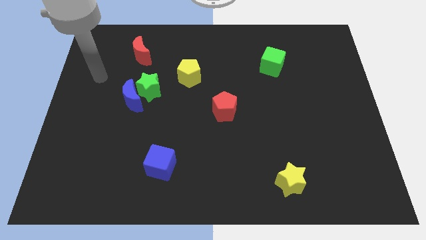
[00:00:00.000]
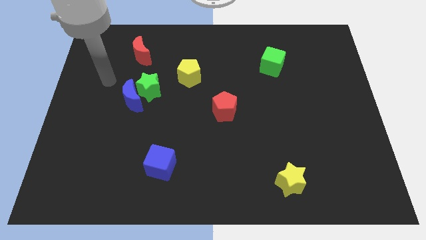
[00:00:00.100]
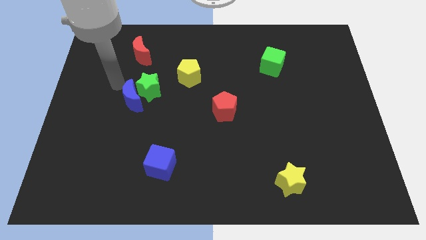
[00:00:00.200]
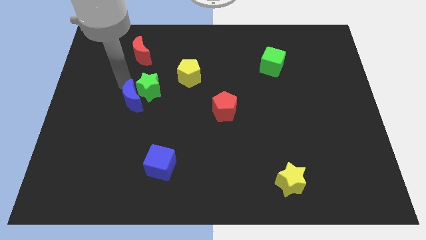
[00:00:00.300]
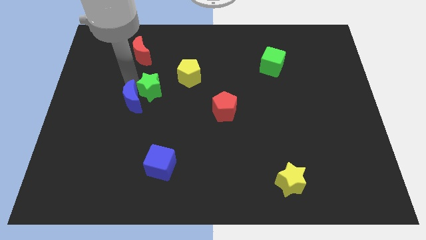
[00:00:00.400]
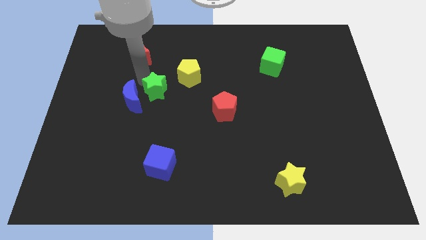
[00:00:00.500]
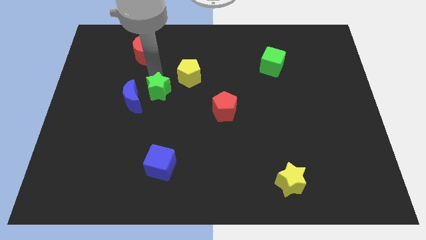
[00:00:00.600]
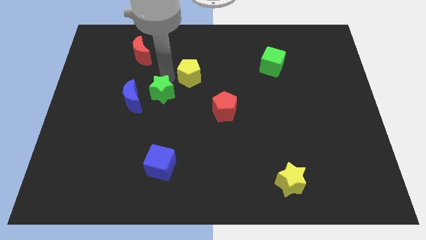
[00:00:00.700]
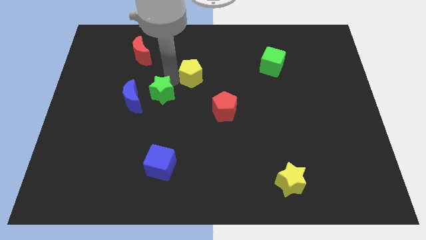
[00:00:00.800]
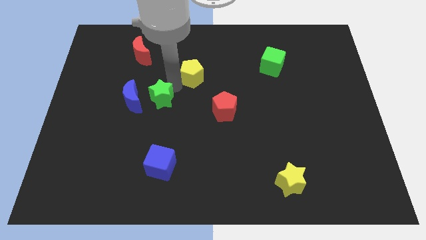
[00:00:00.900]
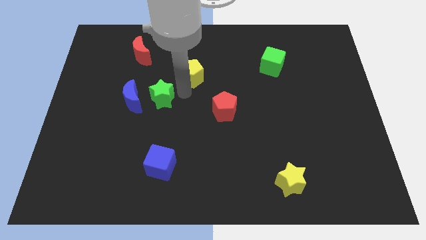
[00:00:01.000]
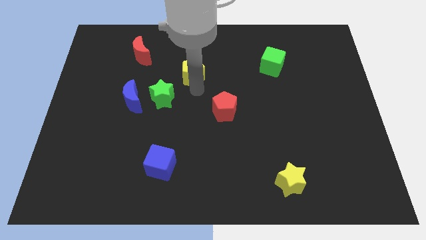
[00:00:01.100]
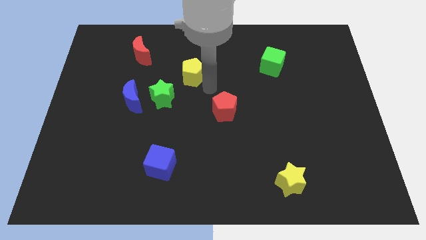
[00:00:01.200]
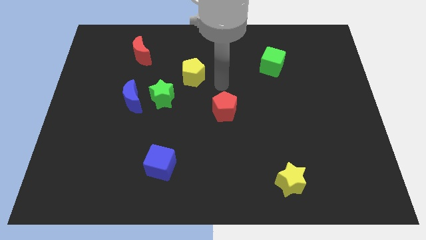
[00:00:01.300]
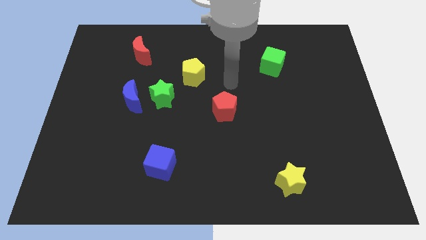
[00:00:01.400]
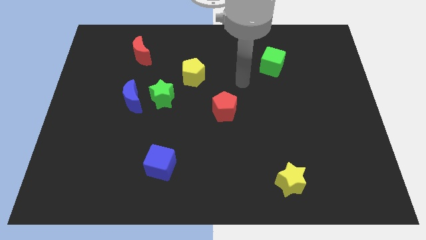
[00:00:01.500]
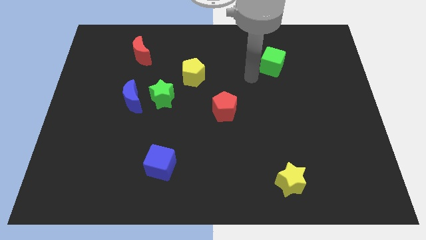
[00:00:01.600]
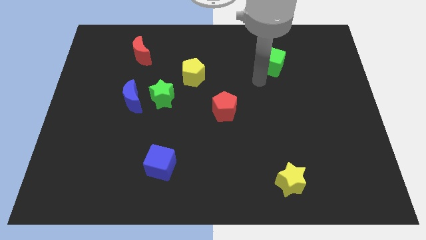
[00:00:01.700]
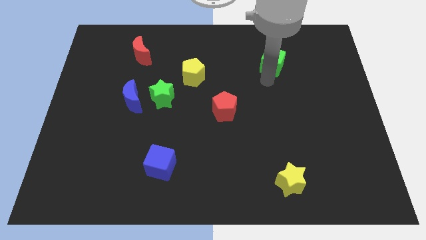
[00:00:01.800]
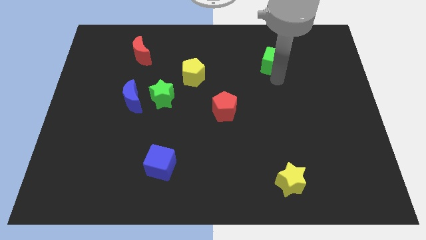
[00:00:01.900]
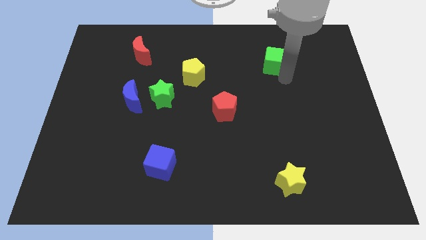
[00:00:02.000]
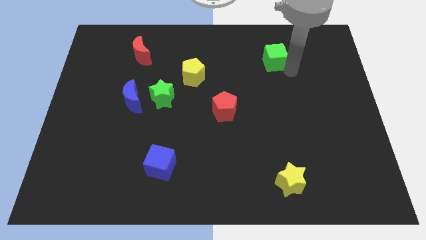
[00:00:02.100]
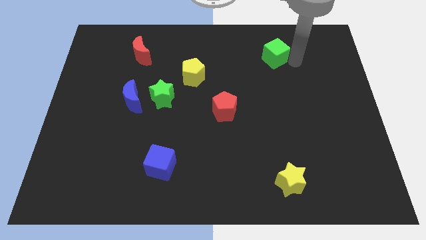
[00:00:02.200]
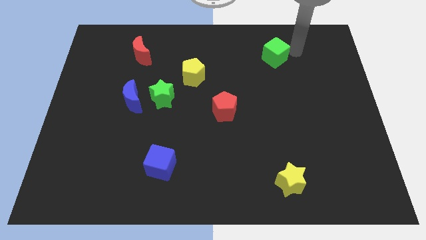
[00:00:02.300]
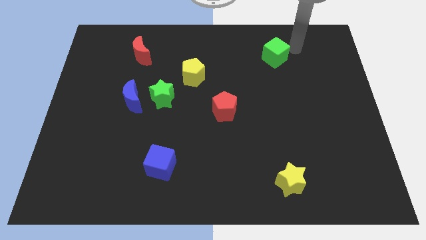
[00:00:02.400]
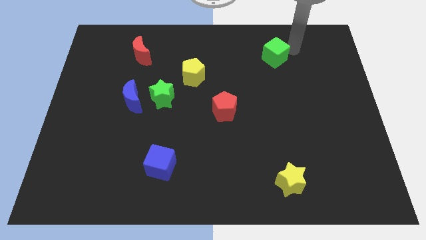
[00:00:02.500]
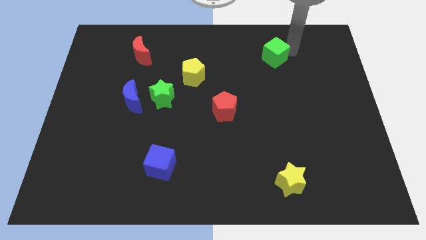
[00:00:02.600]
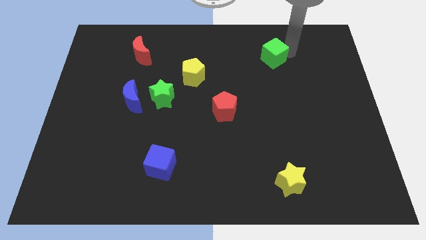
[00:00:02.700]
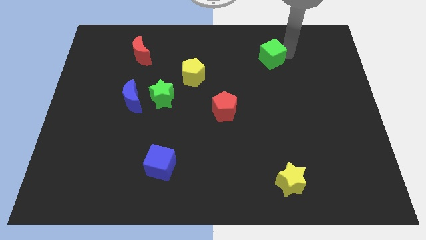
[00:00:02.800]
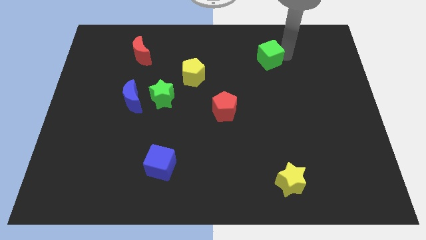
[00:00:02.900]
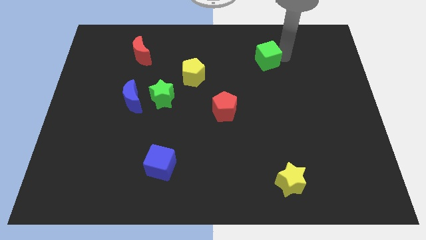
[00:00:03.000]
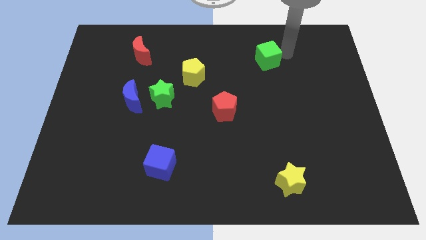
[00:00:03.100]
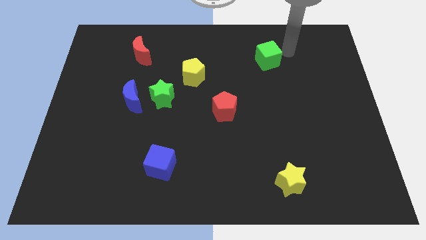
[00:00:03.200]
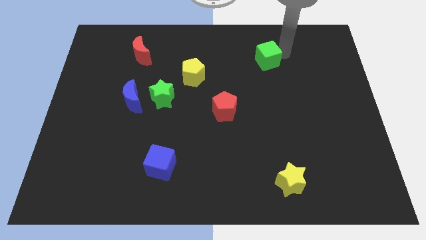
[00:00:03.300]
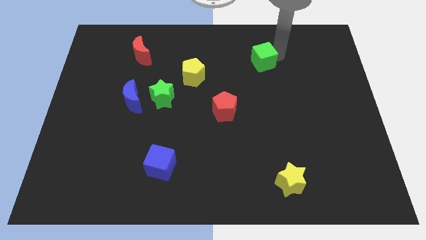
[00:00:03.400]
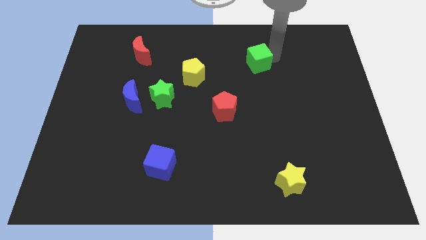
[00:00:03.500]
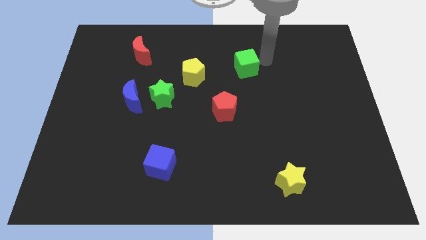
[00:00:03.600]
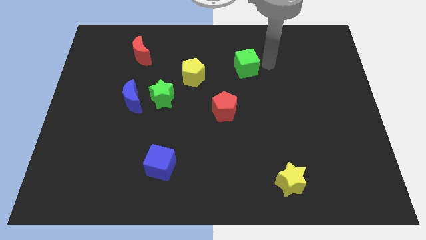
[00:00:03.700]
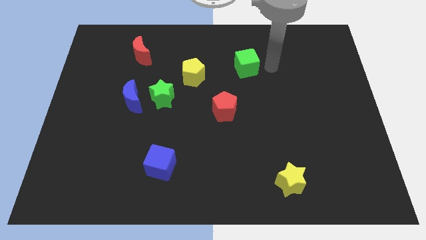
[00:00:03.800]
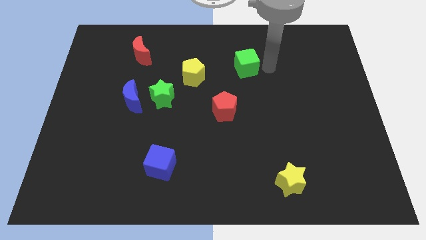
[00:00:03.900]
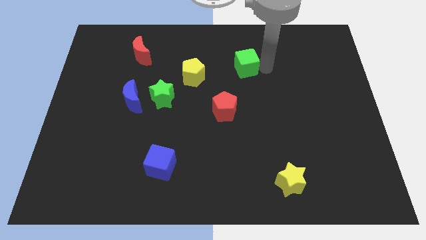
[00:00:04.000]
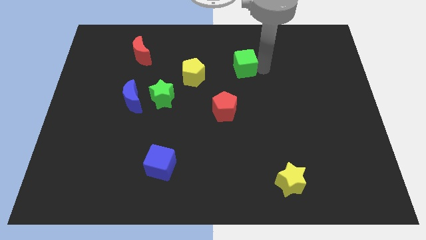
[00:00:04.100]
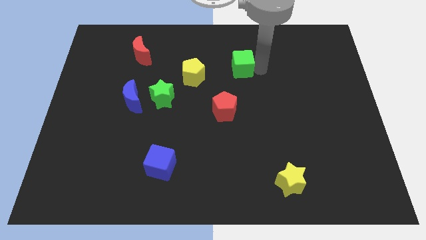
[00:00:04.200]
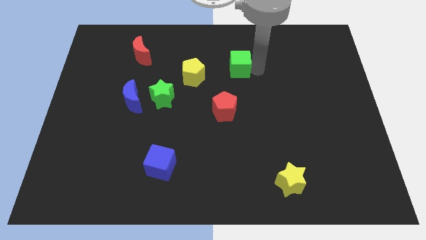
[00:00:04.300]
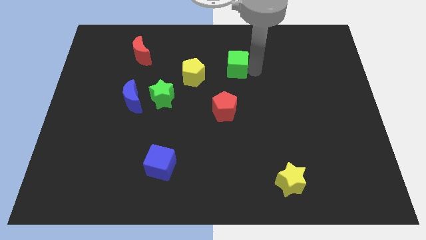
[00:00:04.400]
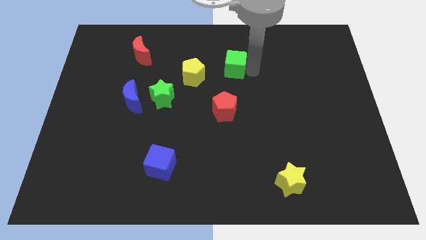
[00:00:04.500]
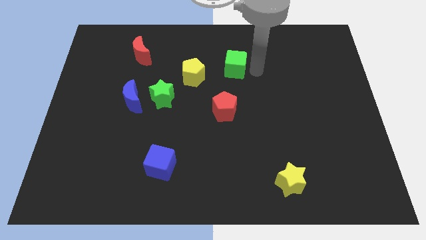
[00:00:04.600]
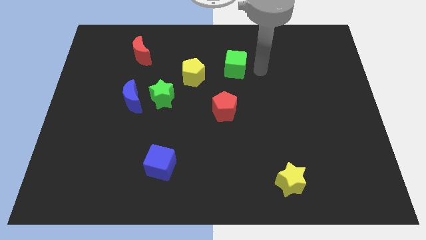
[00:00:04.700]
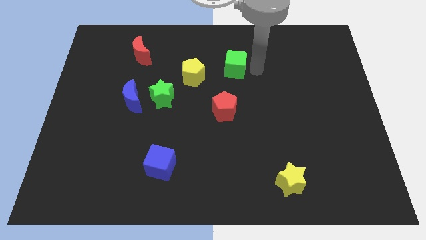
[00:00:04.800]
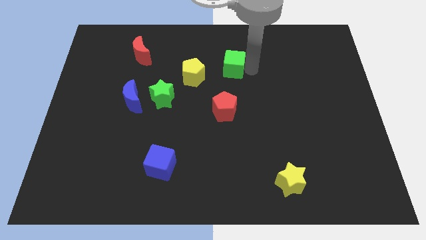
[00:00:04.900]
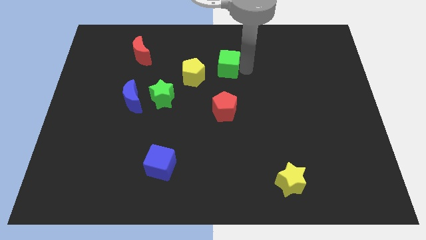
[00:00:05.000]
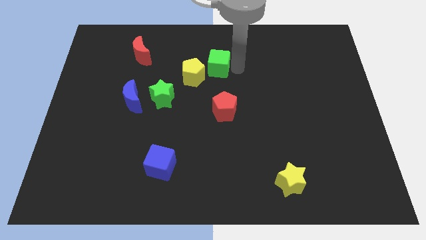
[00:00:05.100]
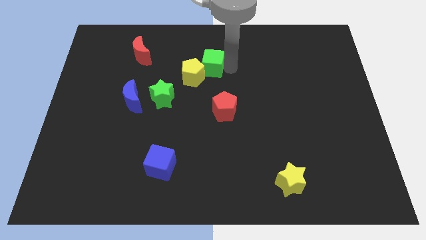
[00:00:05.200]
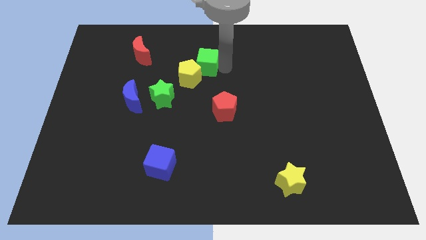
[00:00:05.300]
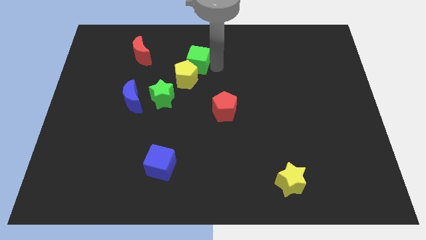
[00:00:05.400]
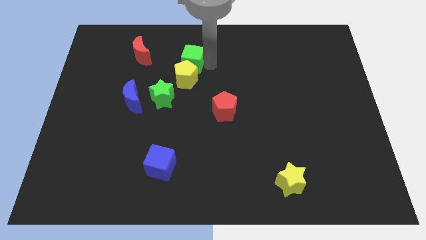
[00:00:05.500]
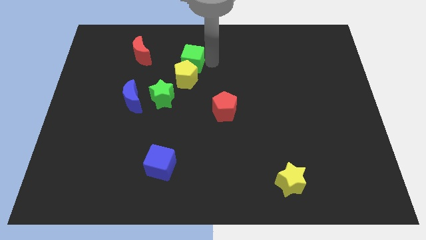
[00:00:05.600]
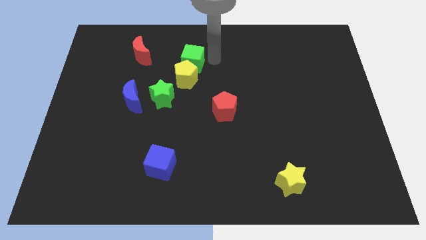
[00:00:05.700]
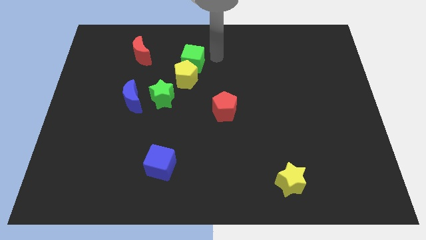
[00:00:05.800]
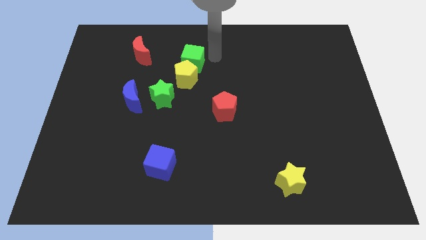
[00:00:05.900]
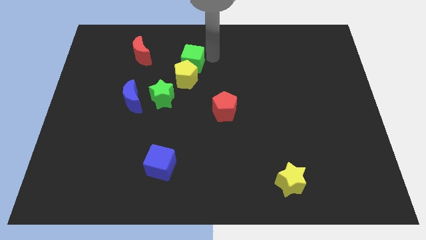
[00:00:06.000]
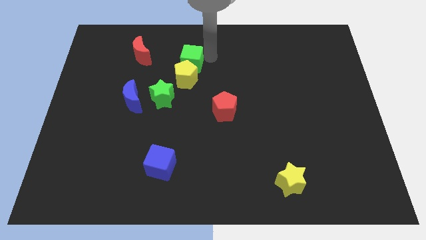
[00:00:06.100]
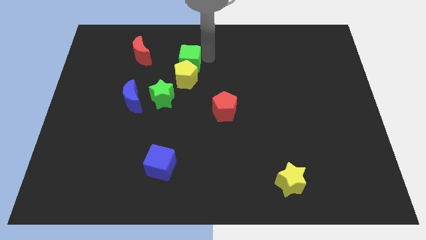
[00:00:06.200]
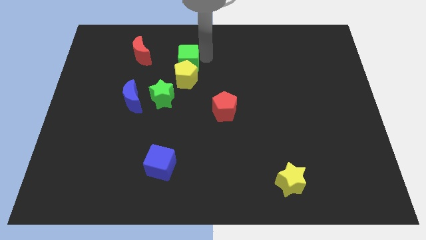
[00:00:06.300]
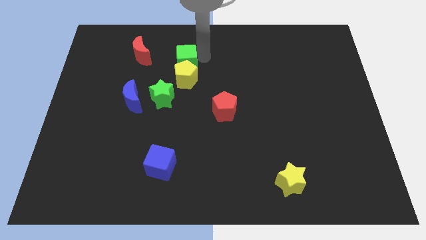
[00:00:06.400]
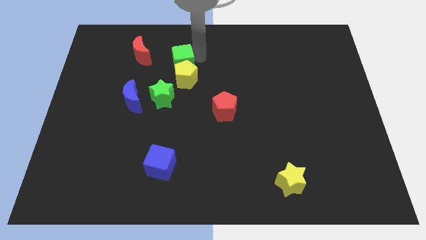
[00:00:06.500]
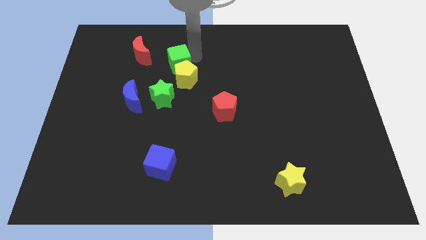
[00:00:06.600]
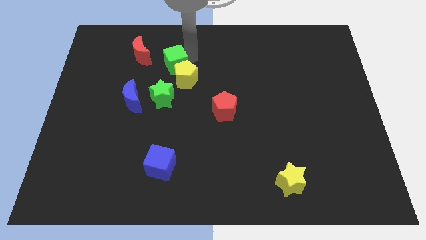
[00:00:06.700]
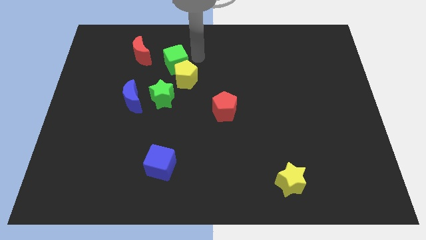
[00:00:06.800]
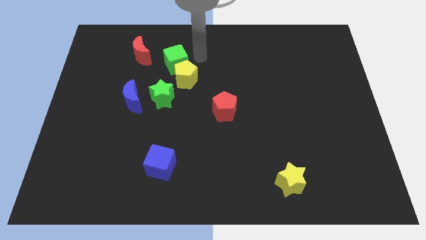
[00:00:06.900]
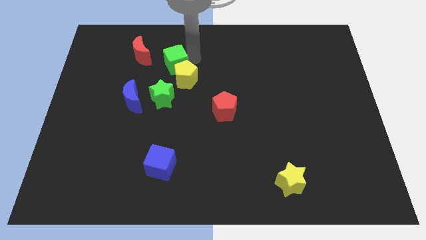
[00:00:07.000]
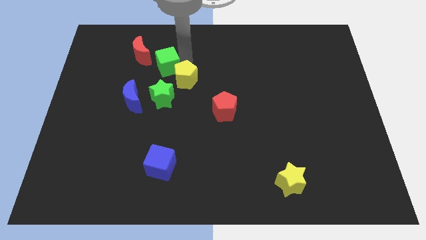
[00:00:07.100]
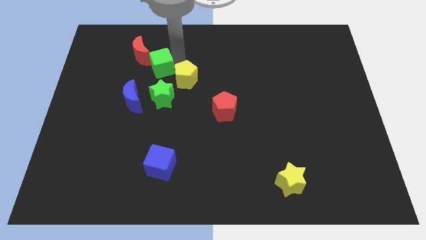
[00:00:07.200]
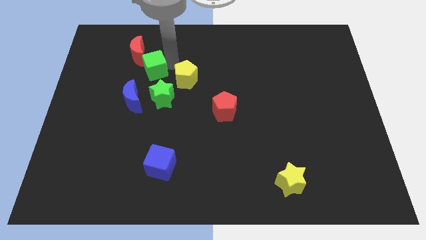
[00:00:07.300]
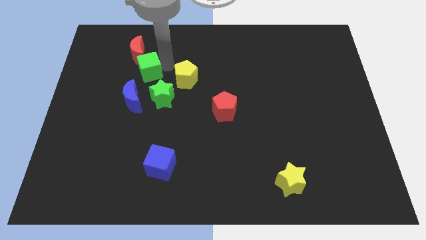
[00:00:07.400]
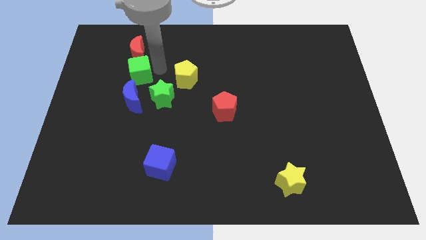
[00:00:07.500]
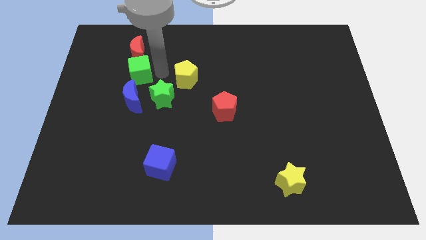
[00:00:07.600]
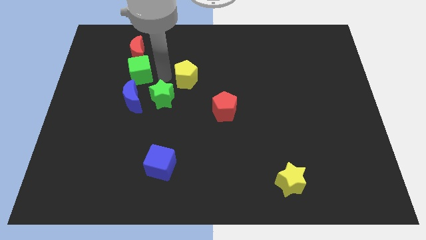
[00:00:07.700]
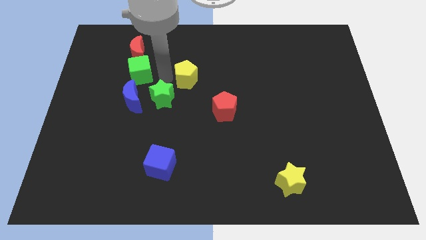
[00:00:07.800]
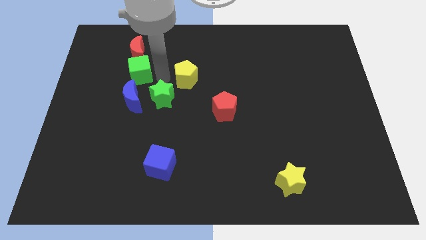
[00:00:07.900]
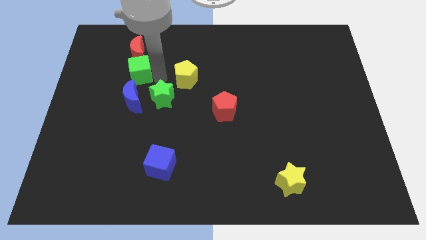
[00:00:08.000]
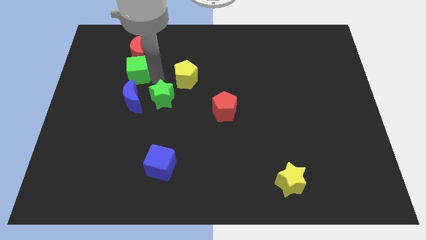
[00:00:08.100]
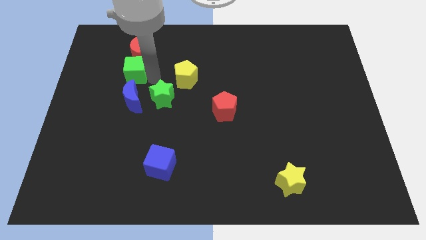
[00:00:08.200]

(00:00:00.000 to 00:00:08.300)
move the green cube to the bottom left of the red moon
